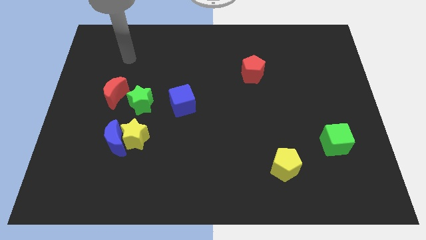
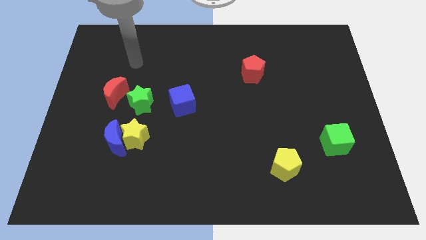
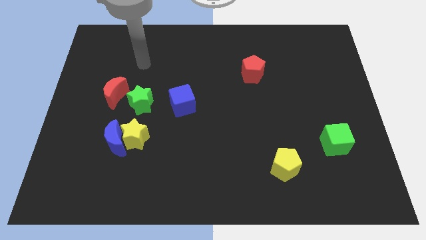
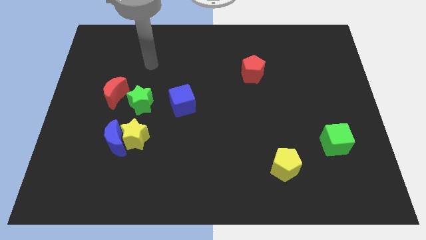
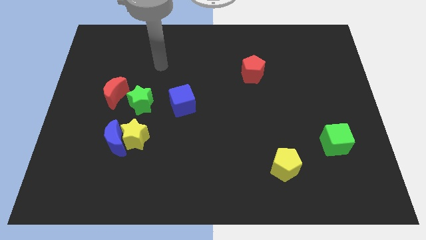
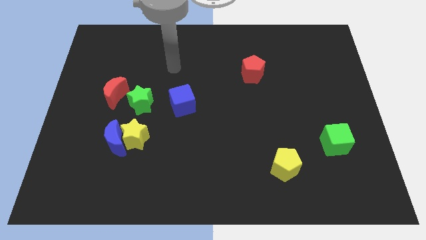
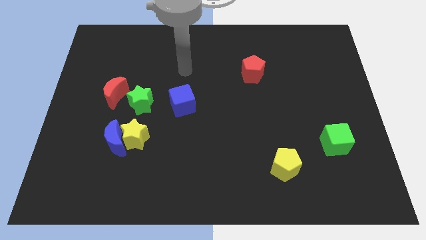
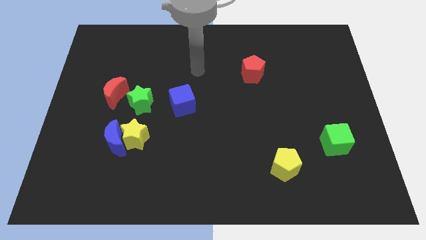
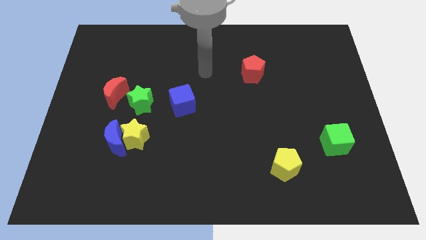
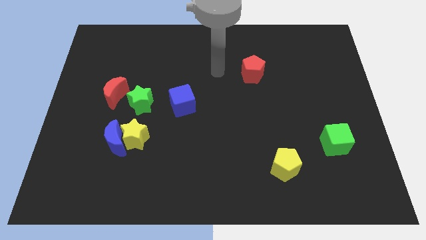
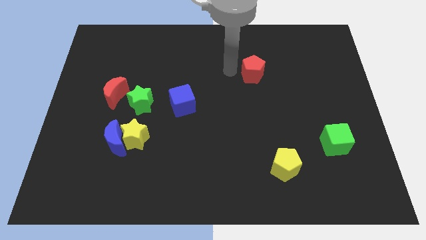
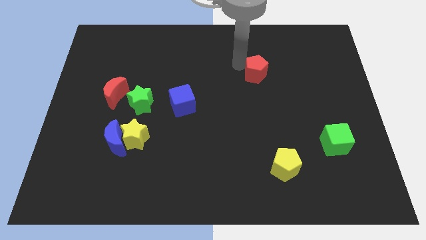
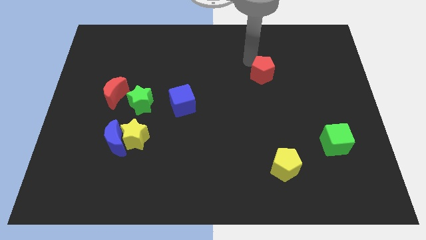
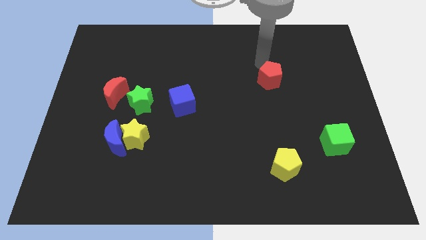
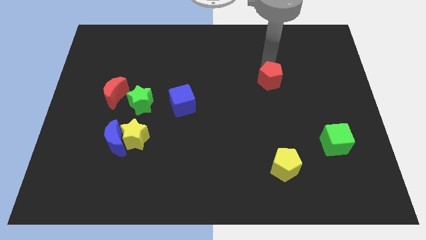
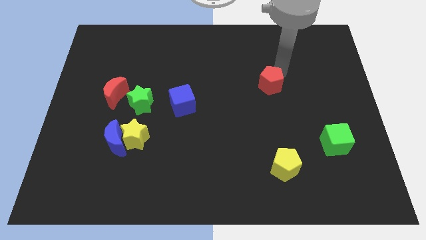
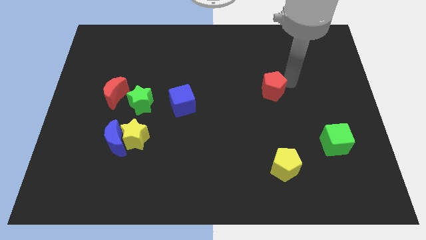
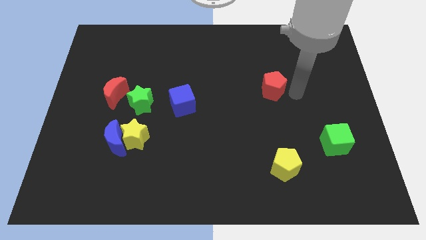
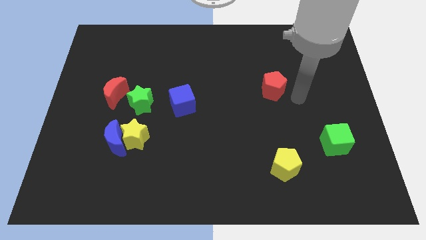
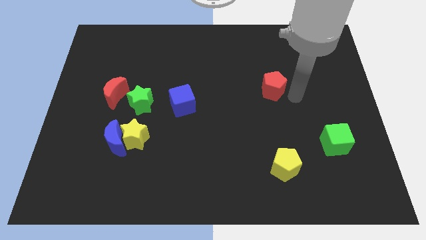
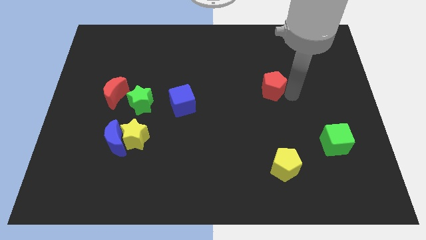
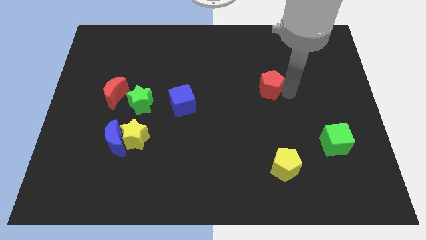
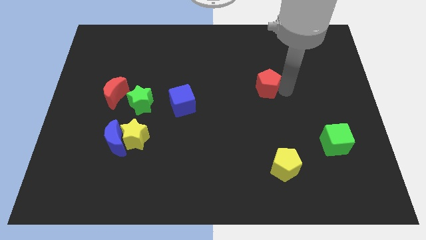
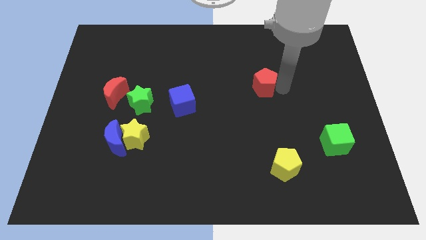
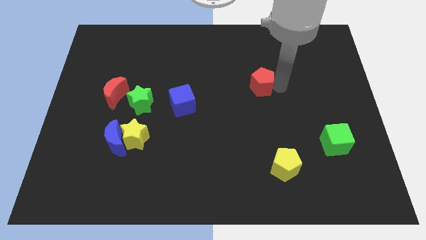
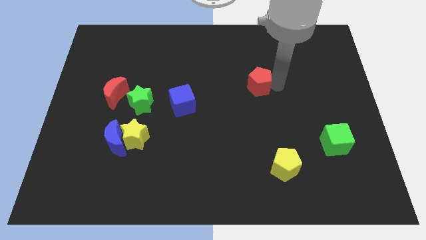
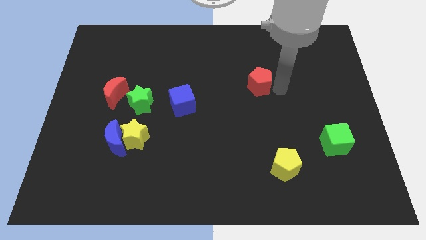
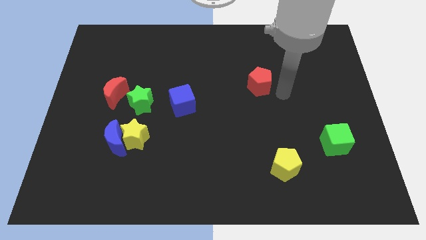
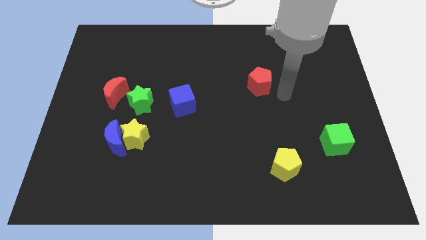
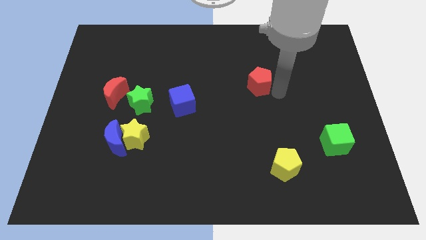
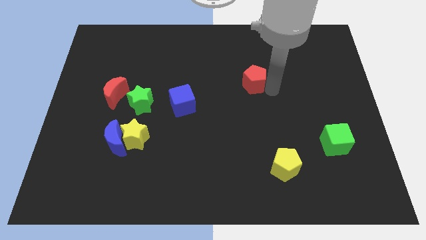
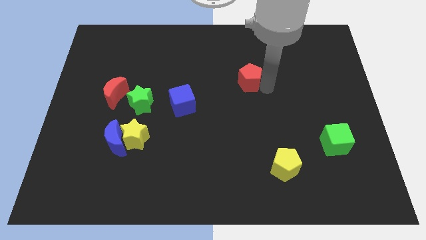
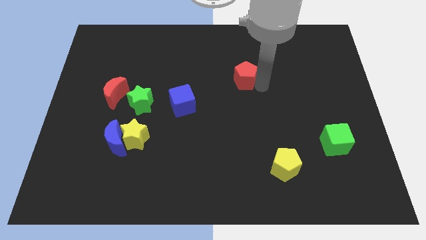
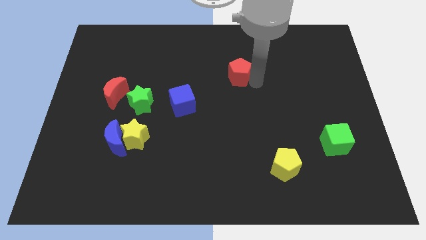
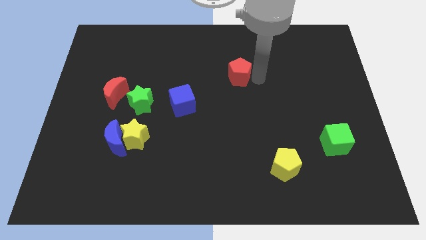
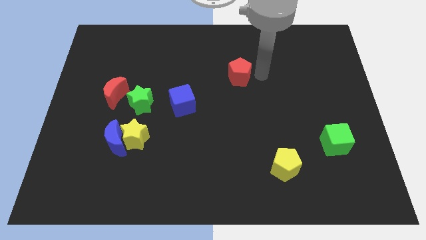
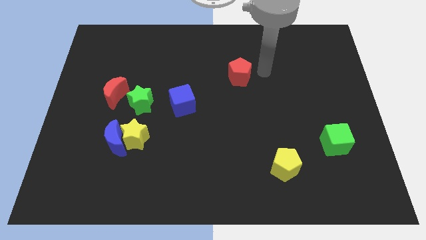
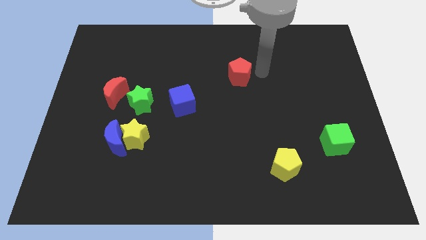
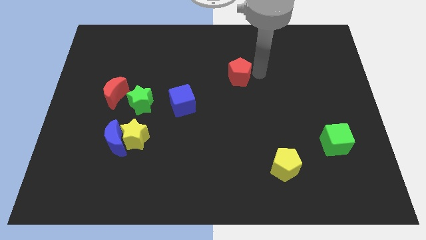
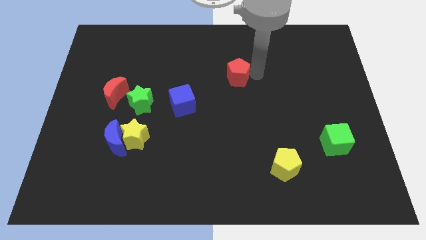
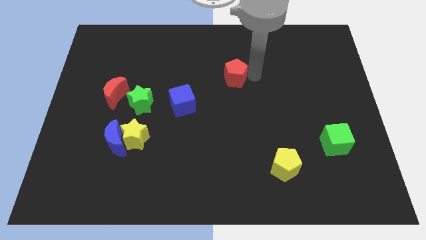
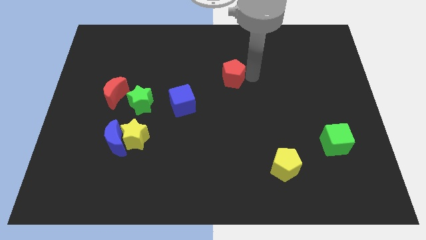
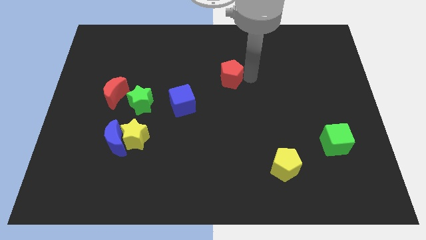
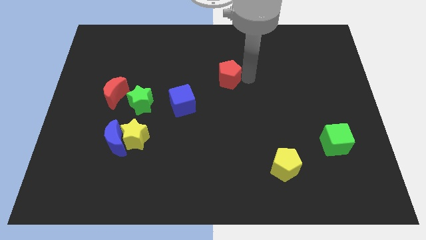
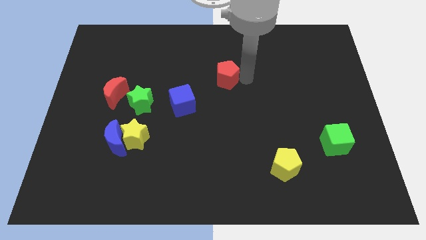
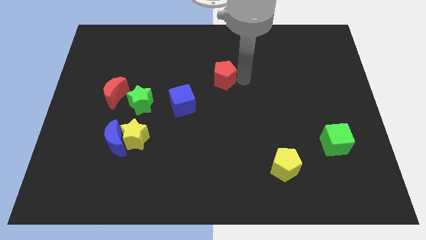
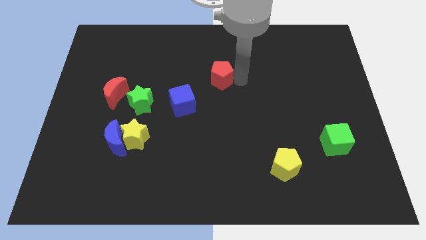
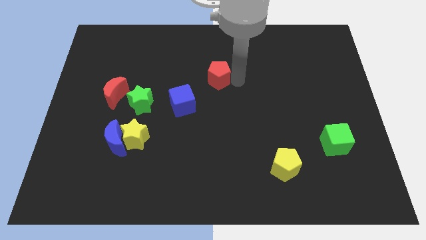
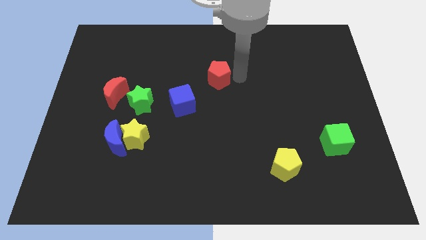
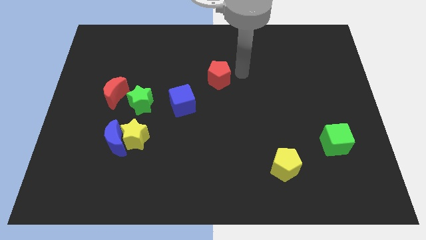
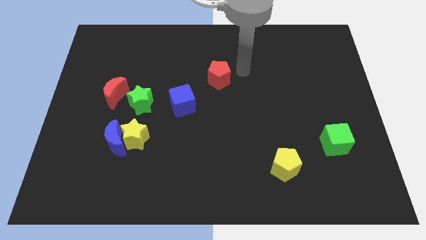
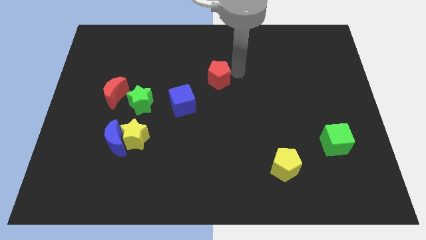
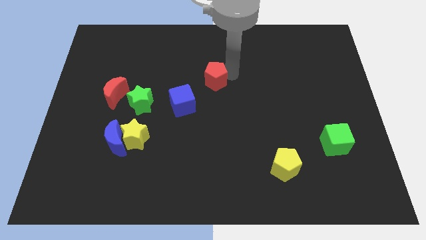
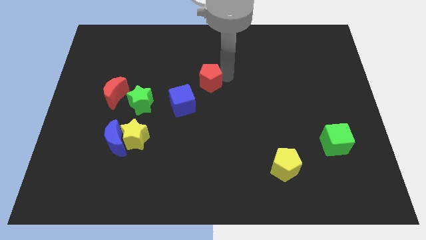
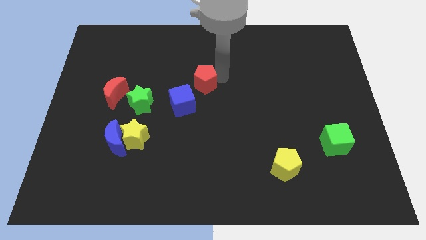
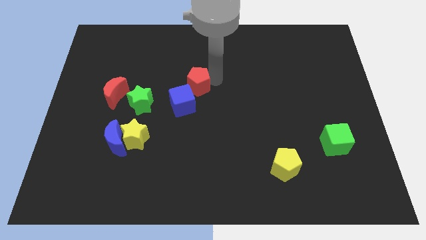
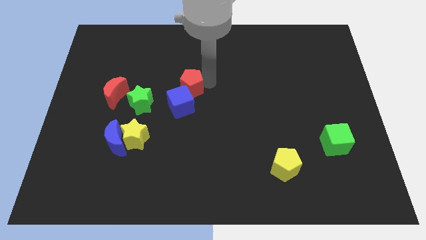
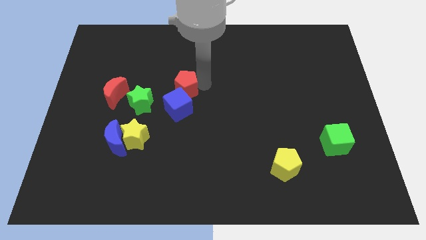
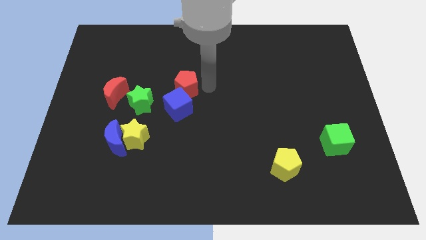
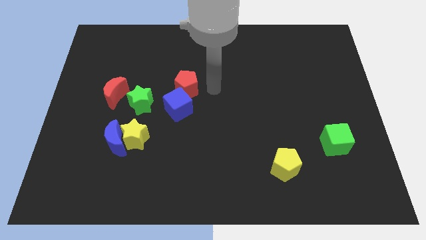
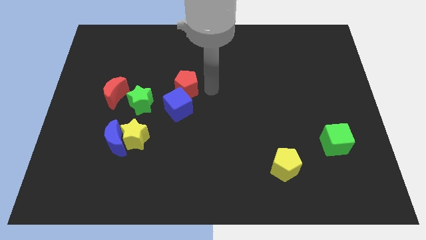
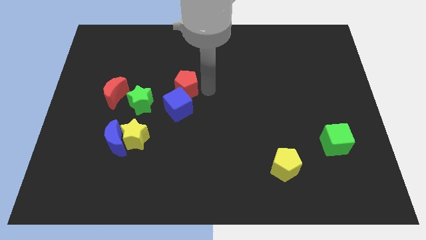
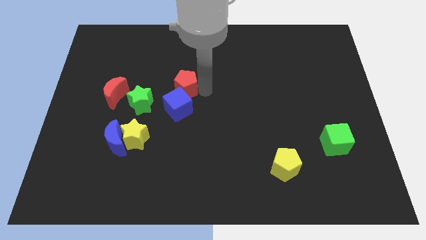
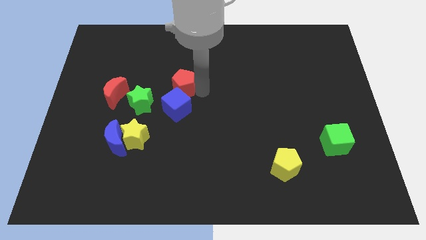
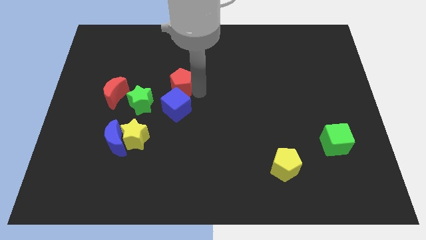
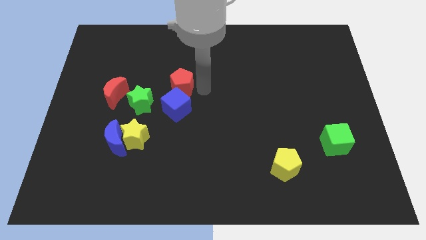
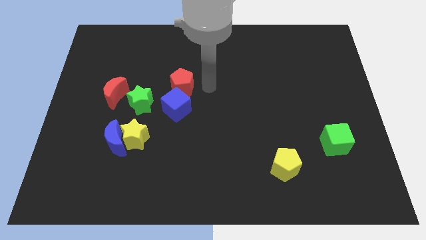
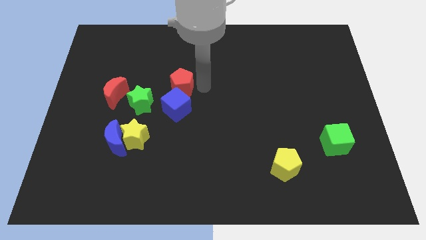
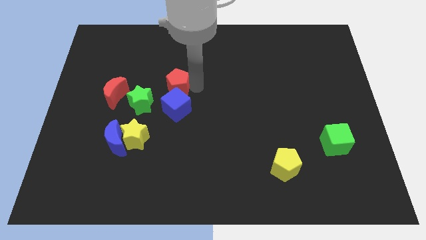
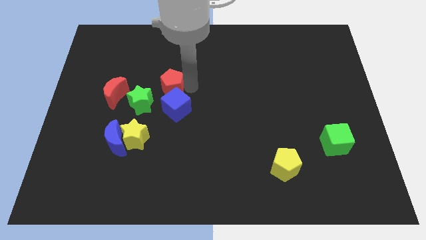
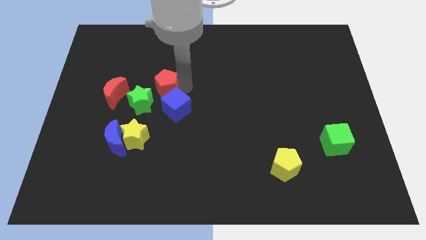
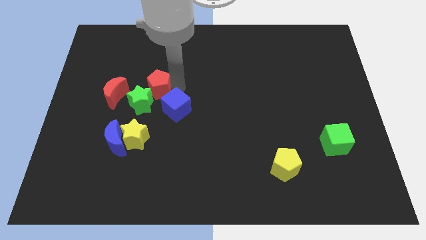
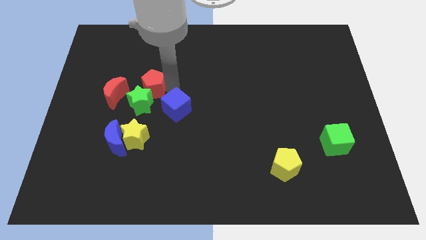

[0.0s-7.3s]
put the red pentagon to the top side of the yellow star
